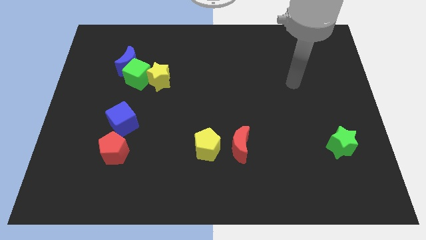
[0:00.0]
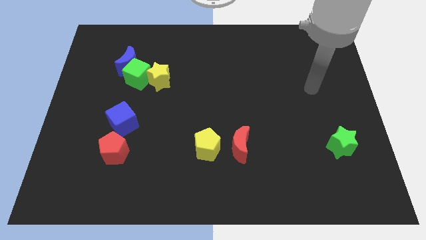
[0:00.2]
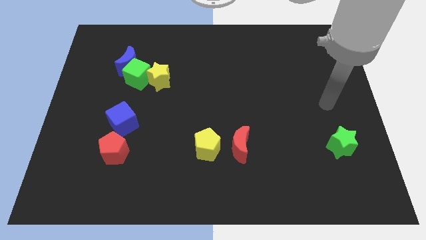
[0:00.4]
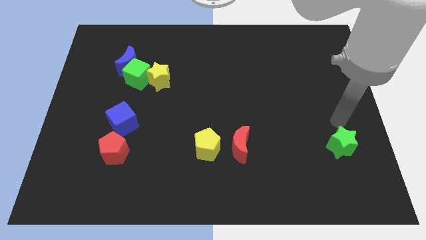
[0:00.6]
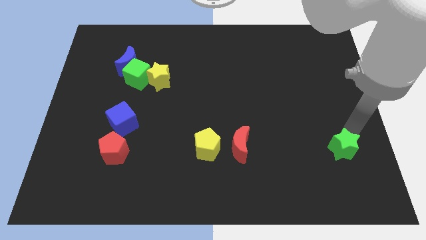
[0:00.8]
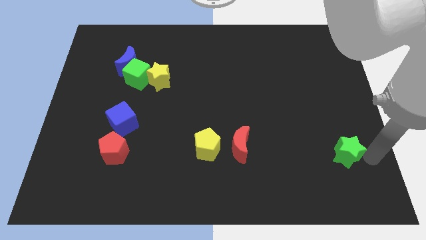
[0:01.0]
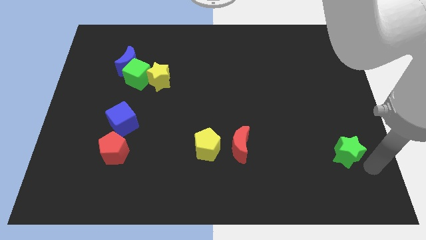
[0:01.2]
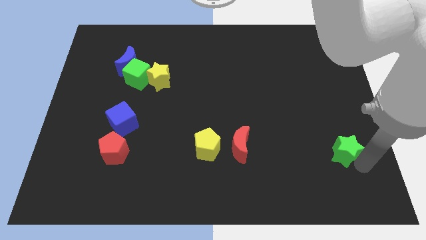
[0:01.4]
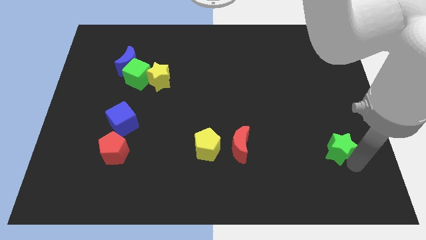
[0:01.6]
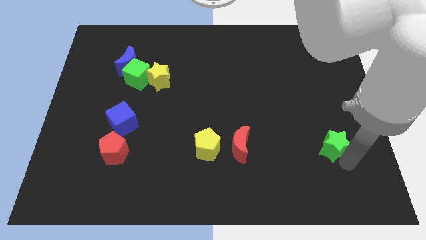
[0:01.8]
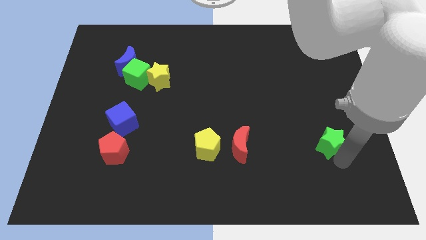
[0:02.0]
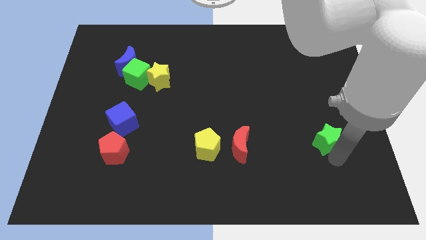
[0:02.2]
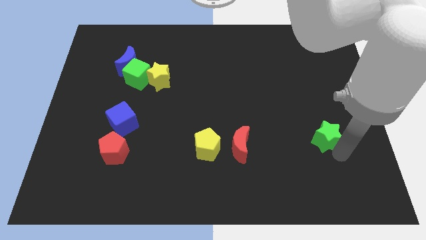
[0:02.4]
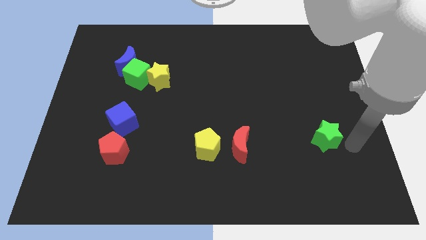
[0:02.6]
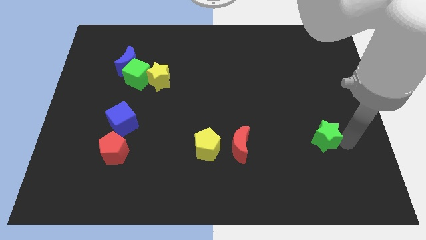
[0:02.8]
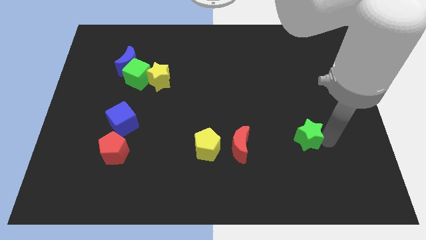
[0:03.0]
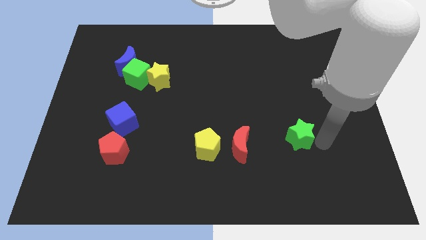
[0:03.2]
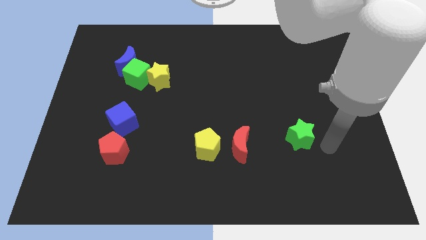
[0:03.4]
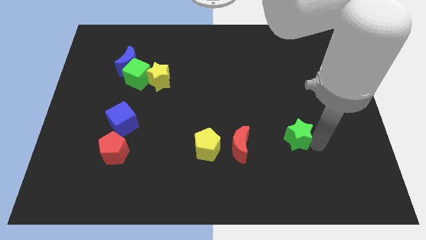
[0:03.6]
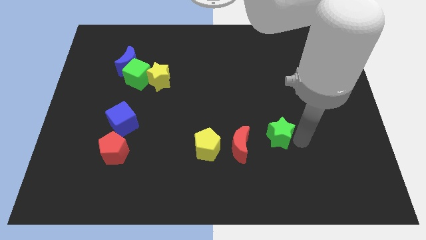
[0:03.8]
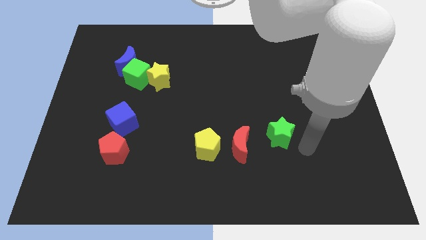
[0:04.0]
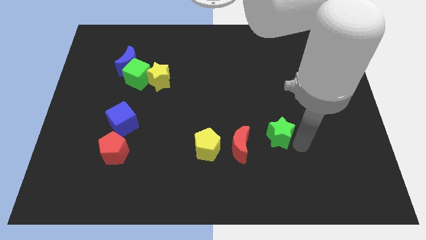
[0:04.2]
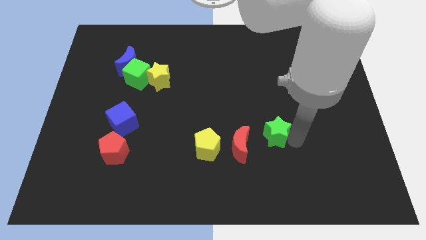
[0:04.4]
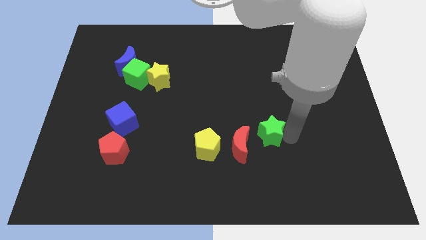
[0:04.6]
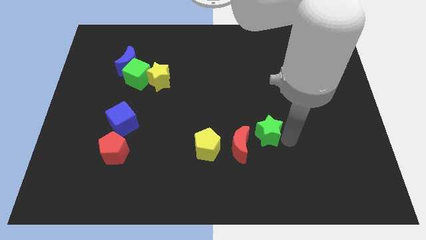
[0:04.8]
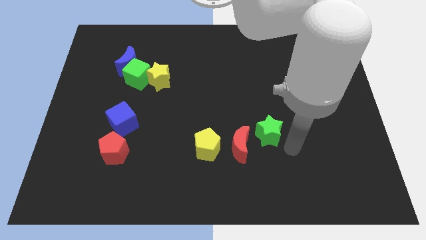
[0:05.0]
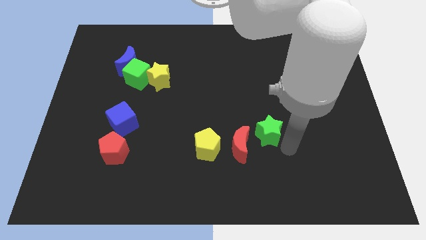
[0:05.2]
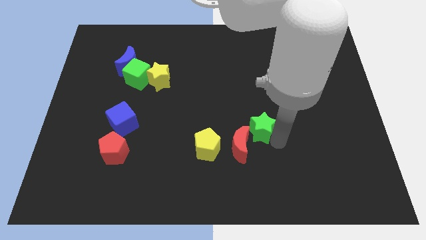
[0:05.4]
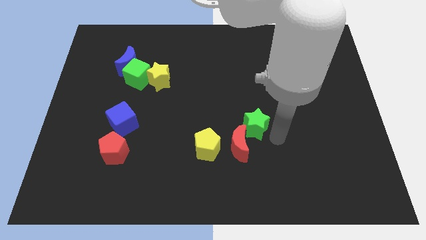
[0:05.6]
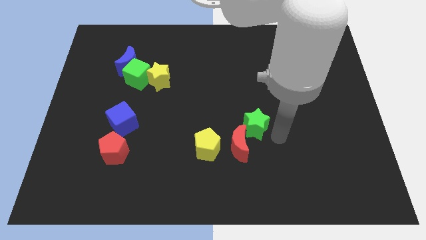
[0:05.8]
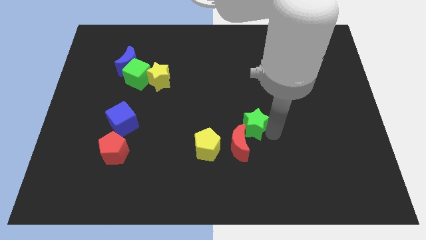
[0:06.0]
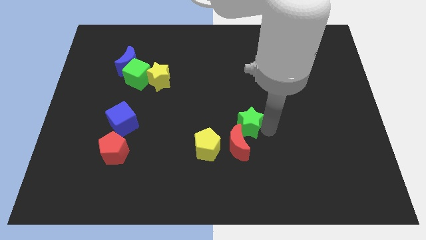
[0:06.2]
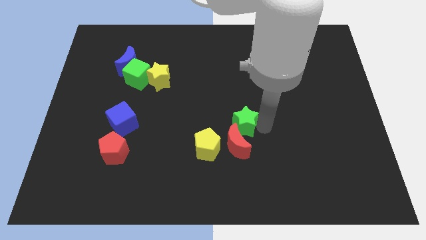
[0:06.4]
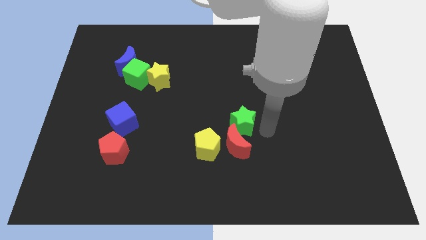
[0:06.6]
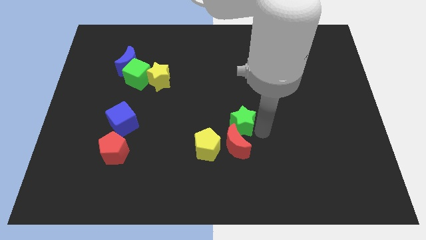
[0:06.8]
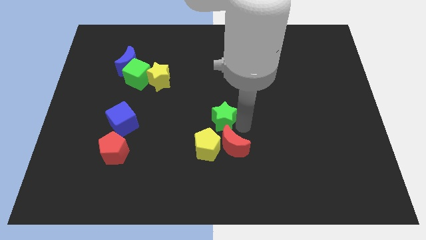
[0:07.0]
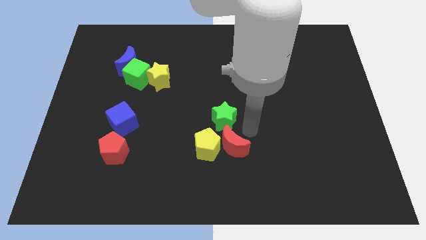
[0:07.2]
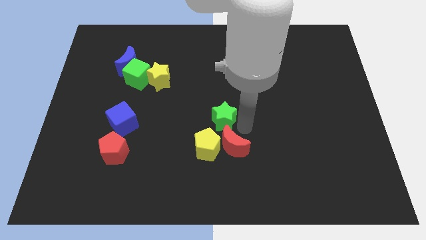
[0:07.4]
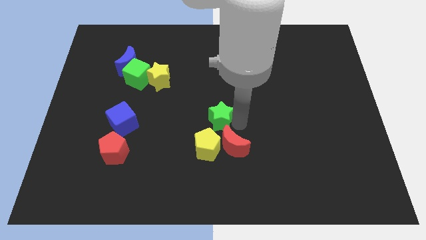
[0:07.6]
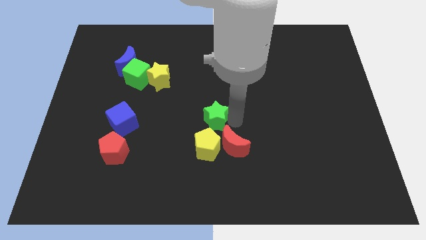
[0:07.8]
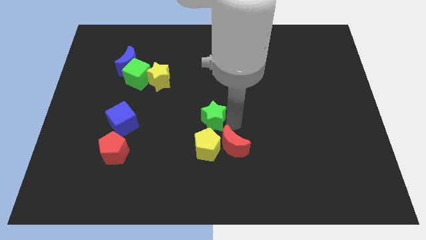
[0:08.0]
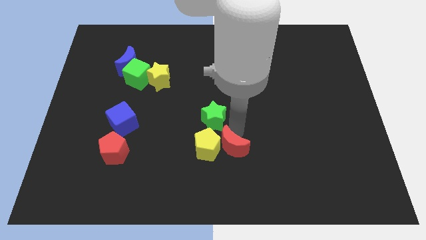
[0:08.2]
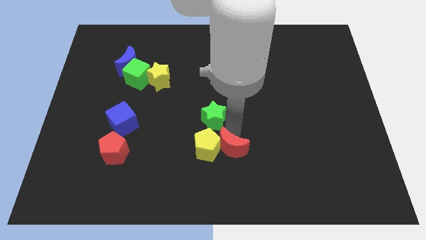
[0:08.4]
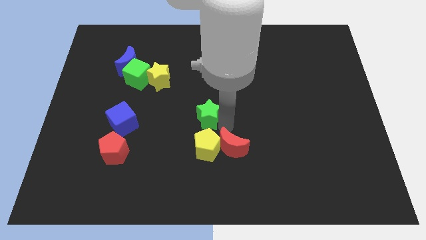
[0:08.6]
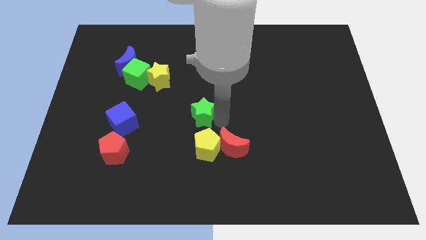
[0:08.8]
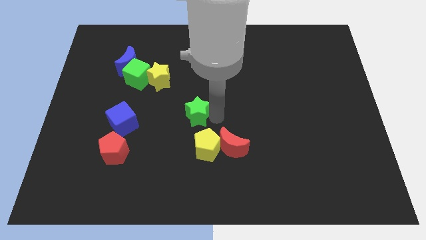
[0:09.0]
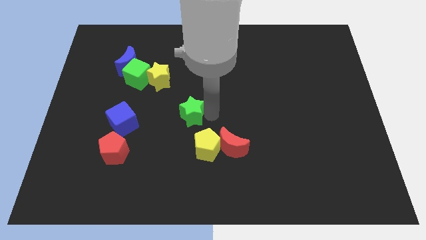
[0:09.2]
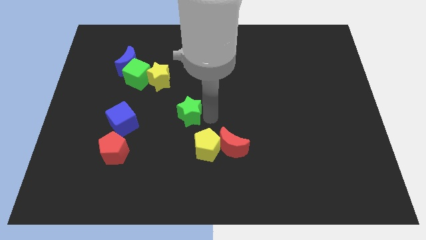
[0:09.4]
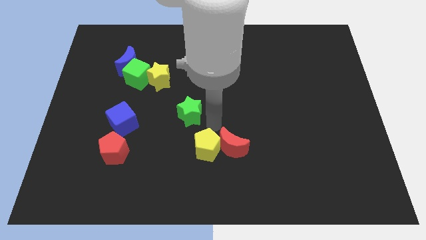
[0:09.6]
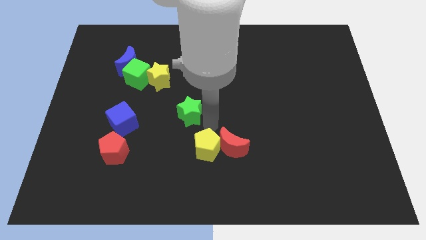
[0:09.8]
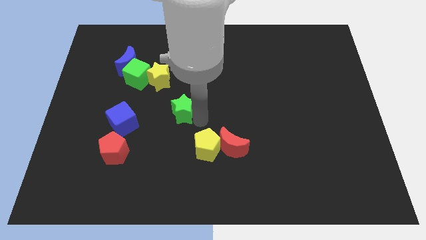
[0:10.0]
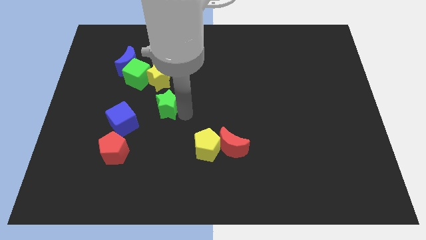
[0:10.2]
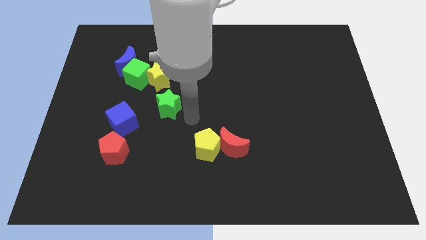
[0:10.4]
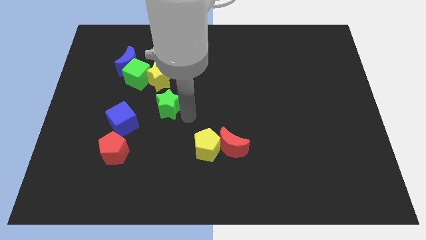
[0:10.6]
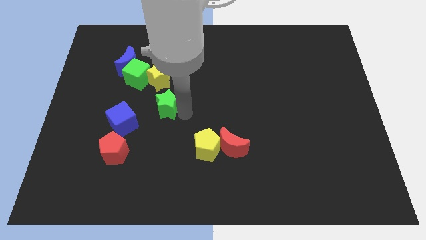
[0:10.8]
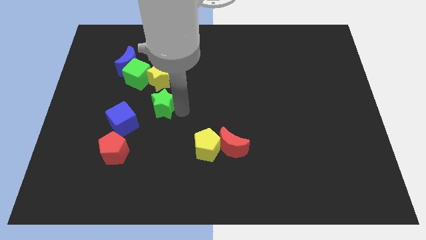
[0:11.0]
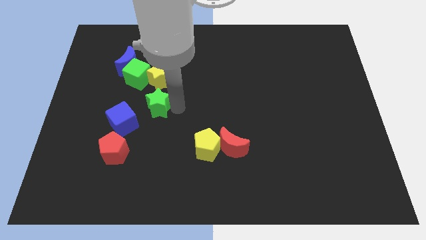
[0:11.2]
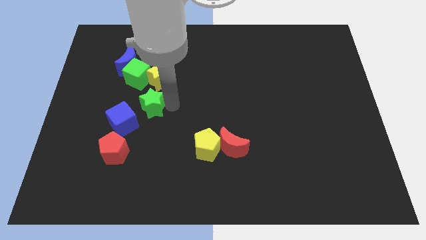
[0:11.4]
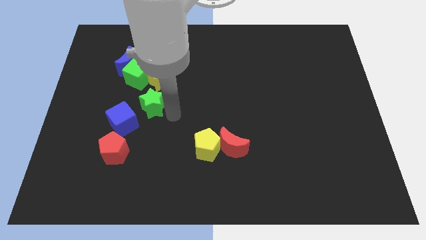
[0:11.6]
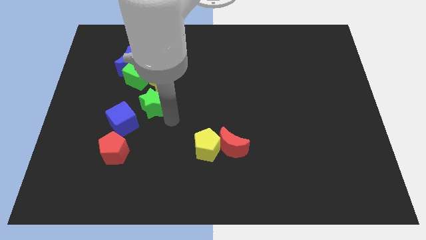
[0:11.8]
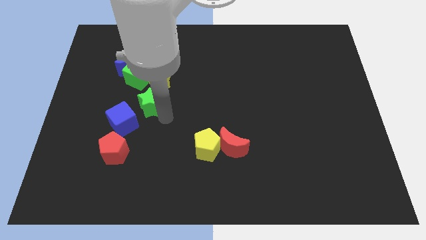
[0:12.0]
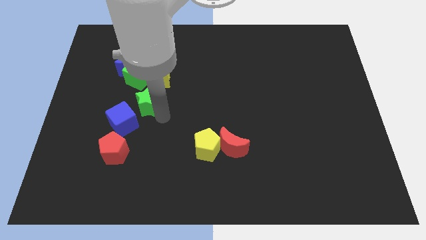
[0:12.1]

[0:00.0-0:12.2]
move the green star to the bottom left side of the yellow star
